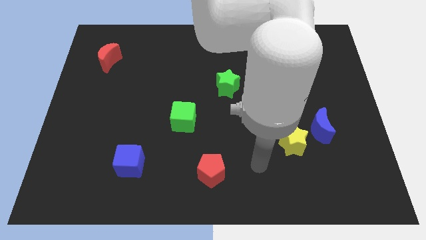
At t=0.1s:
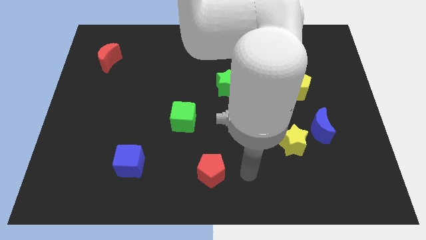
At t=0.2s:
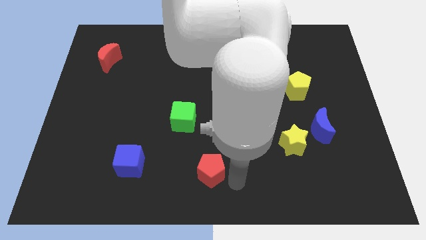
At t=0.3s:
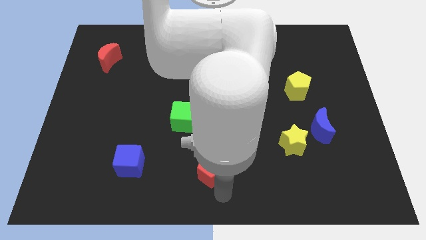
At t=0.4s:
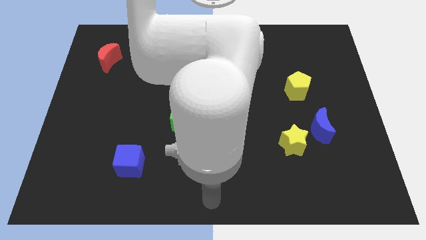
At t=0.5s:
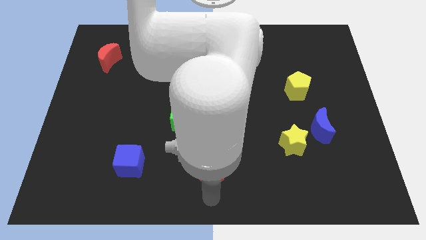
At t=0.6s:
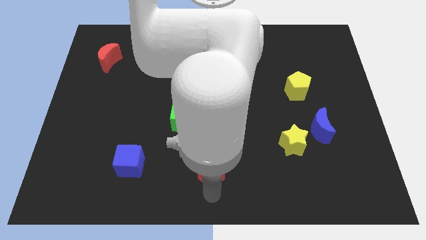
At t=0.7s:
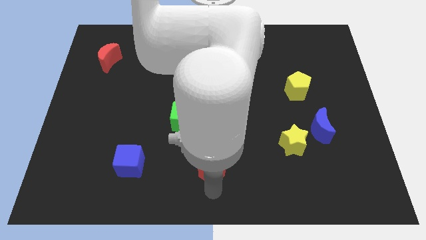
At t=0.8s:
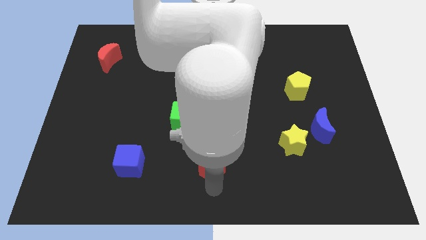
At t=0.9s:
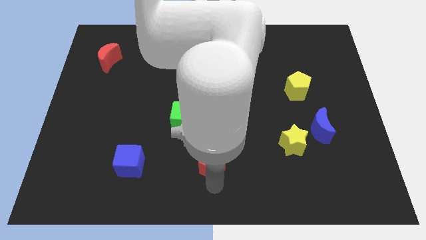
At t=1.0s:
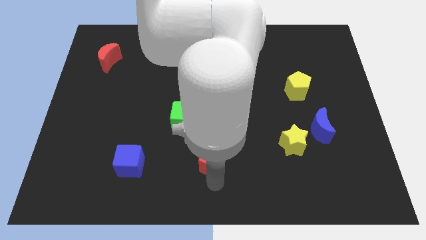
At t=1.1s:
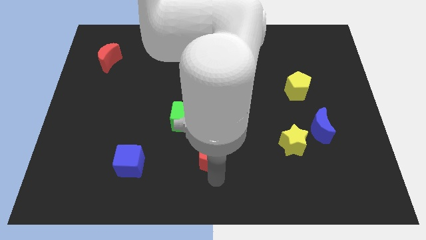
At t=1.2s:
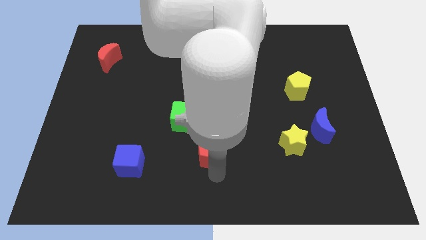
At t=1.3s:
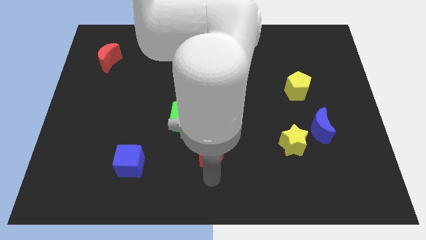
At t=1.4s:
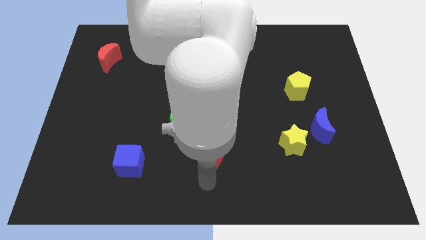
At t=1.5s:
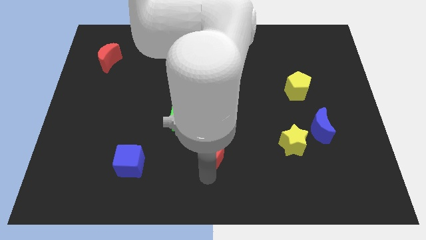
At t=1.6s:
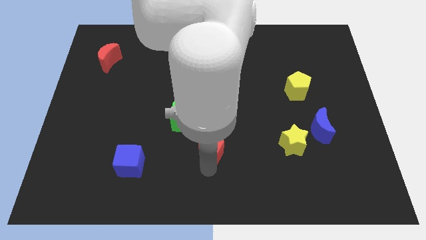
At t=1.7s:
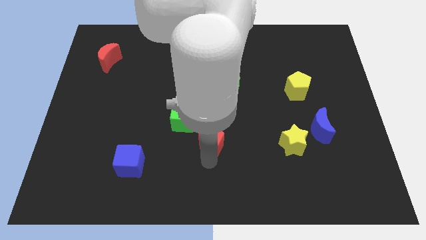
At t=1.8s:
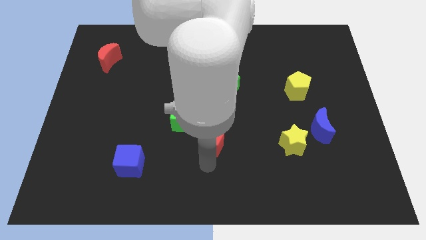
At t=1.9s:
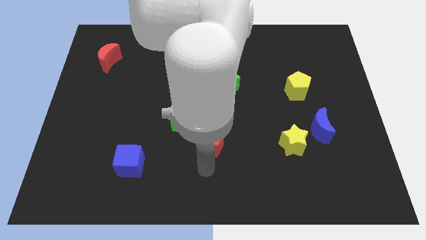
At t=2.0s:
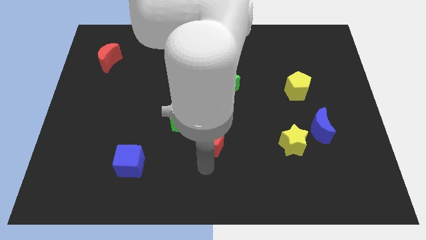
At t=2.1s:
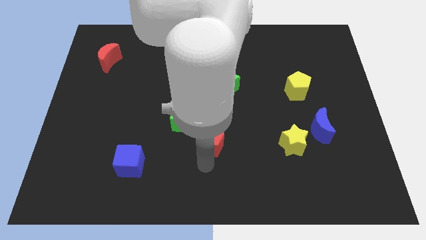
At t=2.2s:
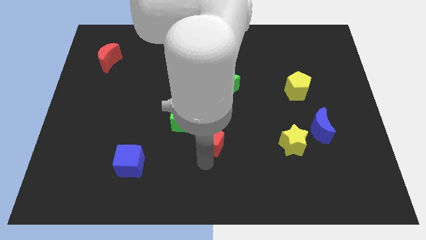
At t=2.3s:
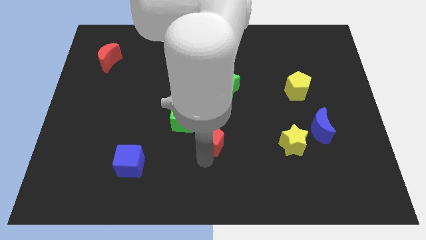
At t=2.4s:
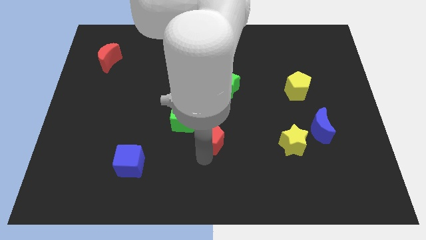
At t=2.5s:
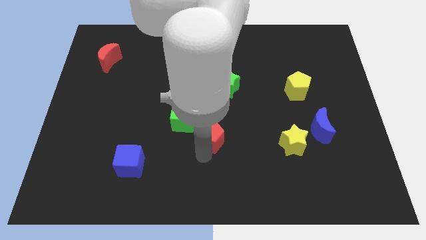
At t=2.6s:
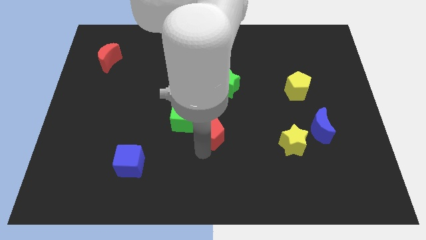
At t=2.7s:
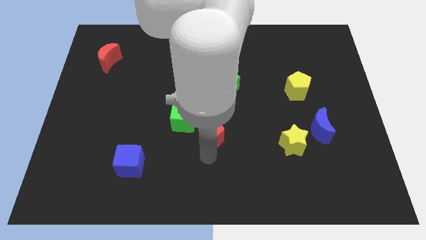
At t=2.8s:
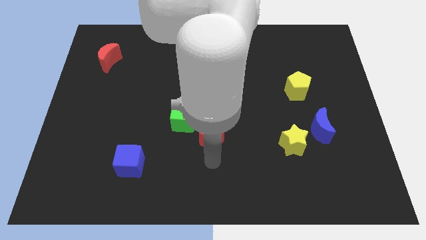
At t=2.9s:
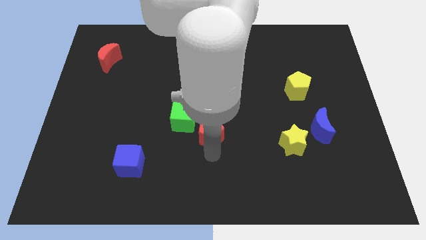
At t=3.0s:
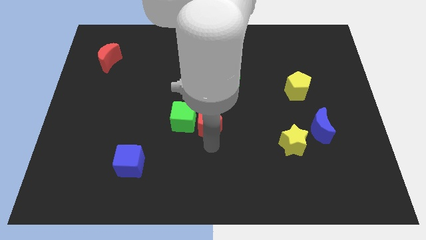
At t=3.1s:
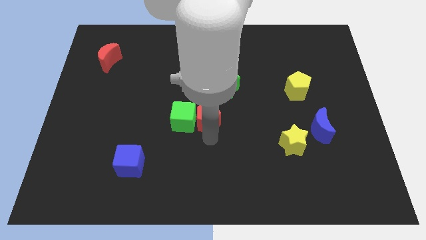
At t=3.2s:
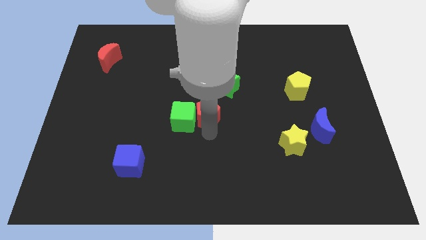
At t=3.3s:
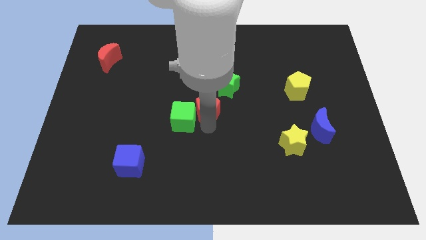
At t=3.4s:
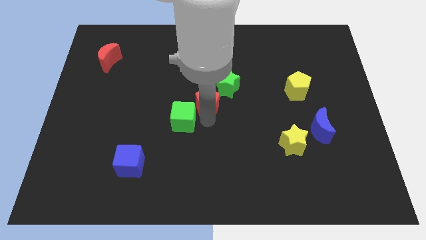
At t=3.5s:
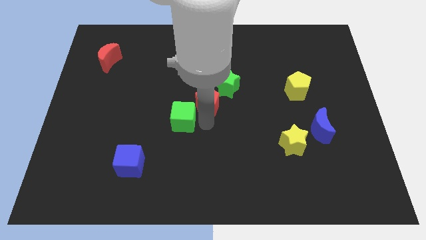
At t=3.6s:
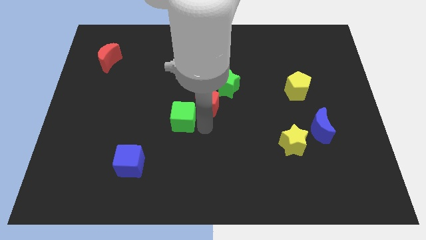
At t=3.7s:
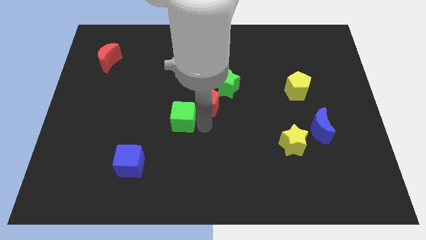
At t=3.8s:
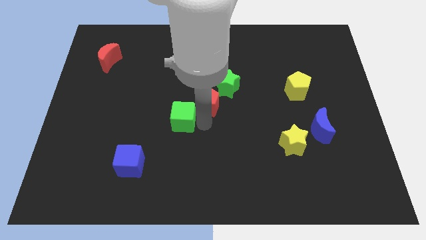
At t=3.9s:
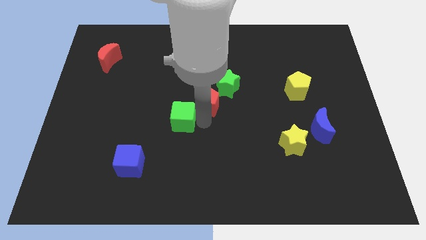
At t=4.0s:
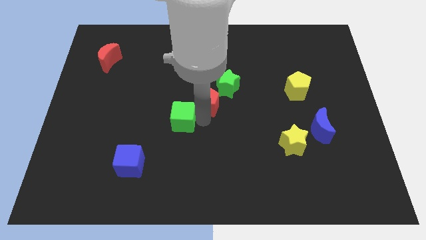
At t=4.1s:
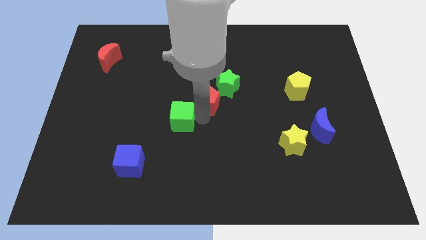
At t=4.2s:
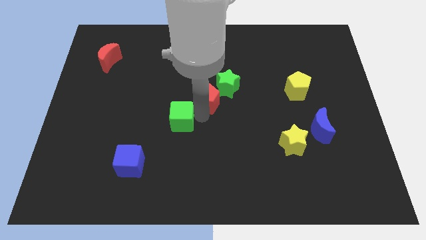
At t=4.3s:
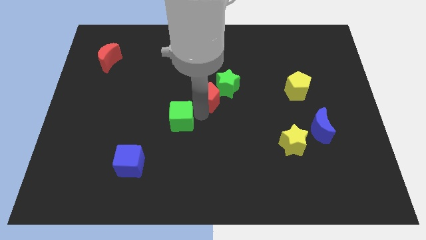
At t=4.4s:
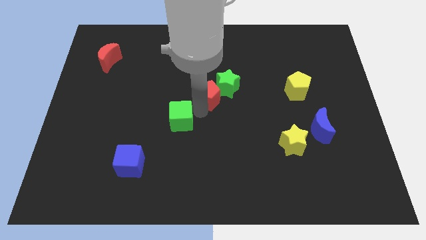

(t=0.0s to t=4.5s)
move the red pentagon upwards

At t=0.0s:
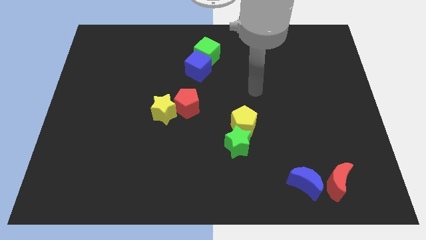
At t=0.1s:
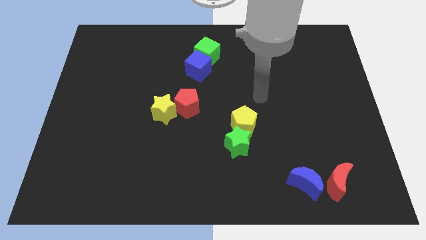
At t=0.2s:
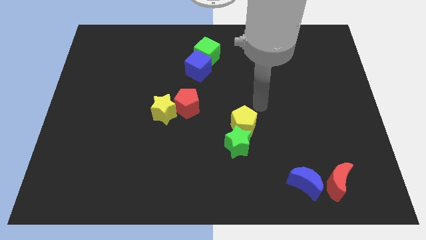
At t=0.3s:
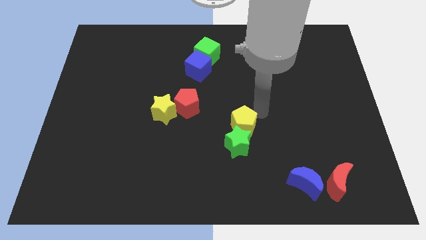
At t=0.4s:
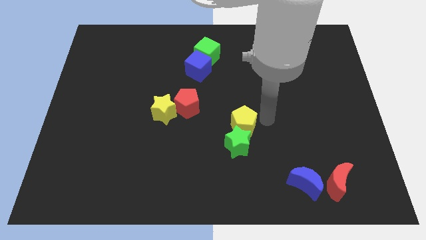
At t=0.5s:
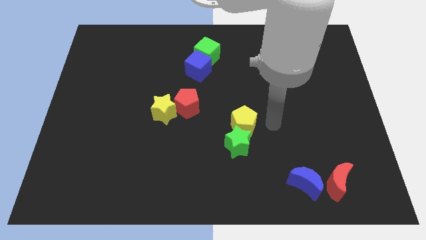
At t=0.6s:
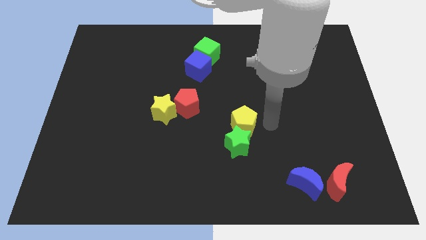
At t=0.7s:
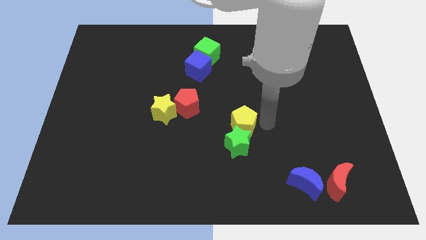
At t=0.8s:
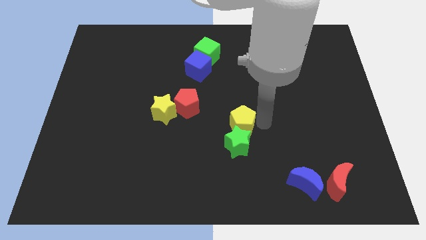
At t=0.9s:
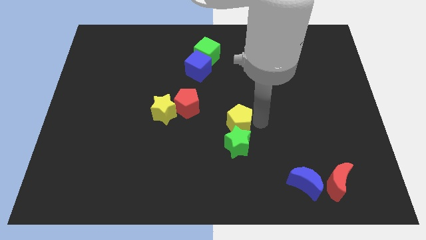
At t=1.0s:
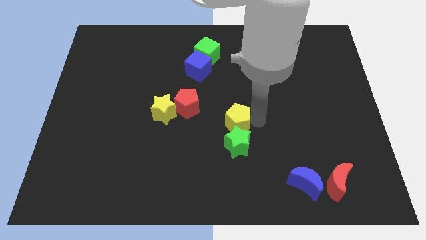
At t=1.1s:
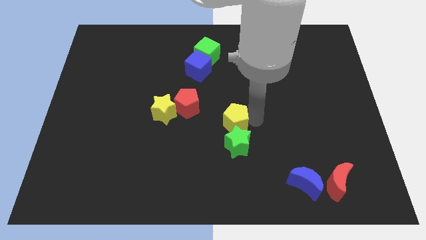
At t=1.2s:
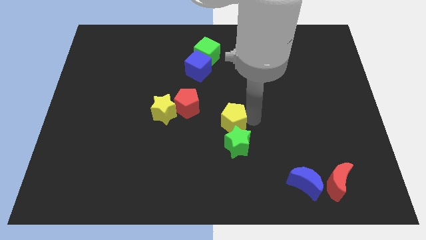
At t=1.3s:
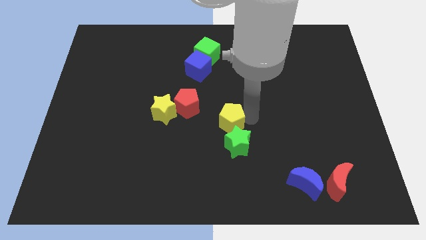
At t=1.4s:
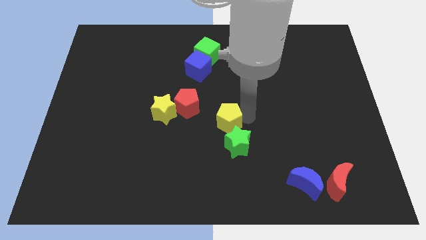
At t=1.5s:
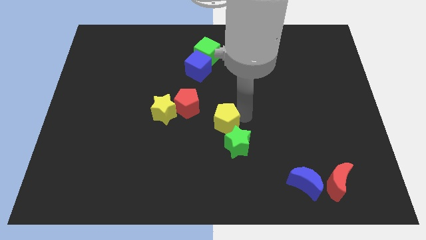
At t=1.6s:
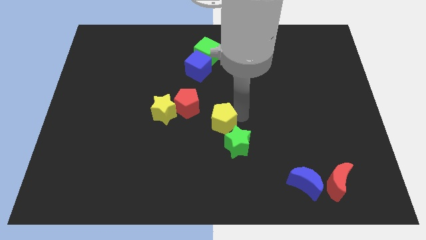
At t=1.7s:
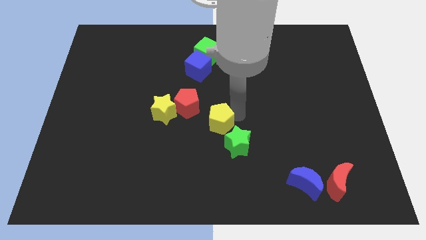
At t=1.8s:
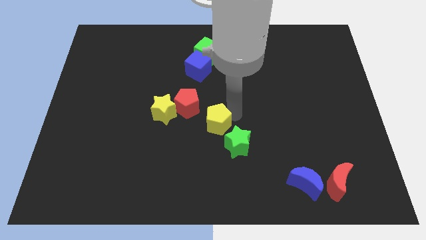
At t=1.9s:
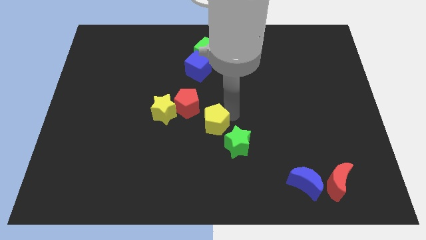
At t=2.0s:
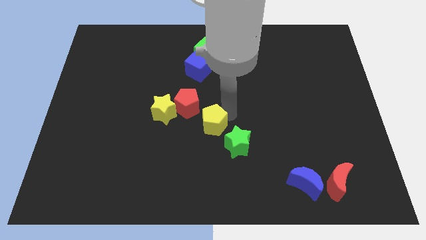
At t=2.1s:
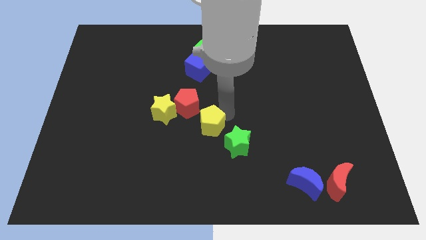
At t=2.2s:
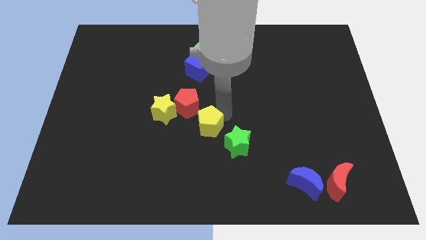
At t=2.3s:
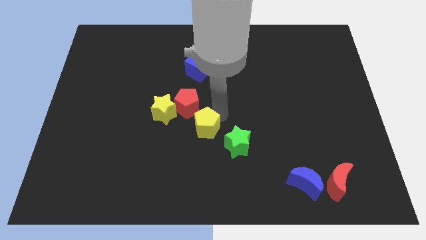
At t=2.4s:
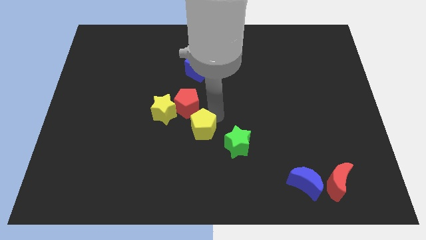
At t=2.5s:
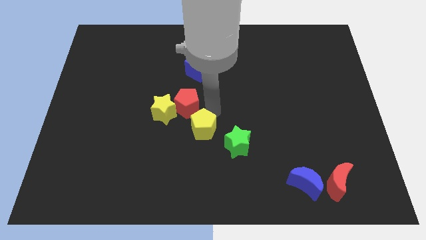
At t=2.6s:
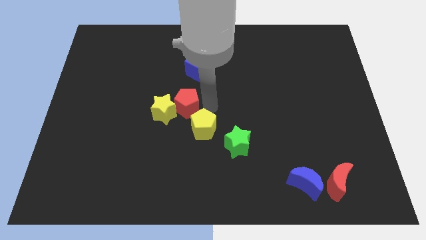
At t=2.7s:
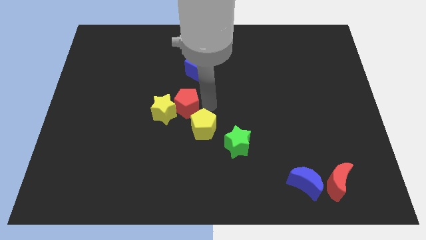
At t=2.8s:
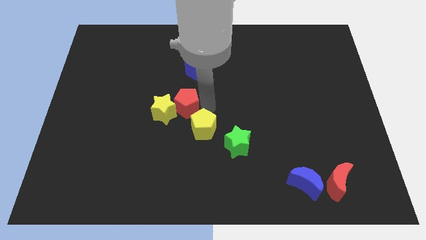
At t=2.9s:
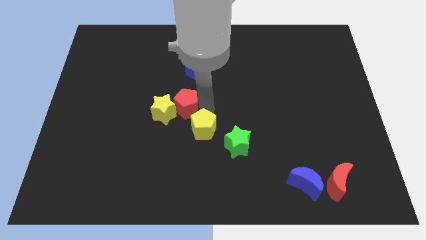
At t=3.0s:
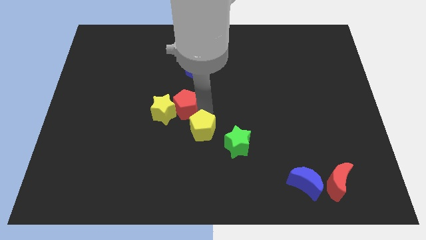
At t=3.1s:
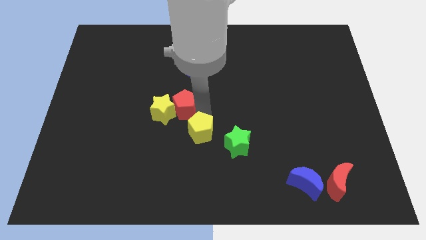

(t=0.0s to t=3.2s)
slightly slide the yellow pentagon down and to the left diagonally

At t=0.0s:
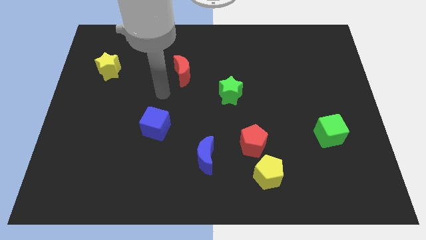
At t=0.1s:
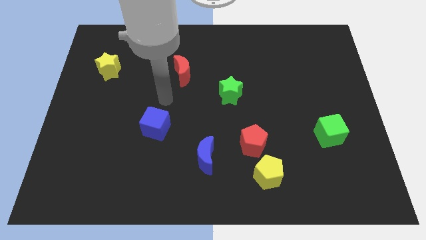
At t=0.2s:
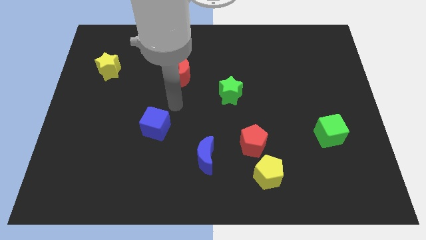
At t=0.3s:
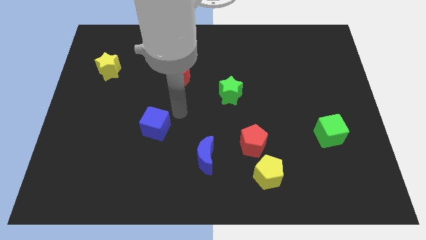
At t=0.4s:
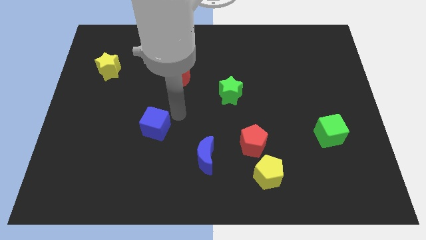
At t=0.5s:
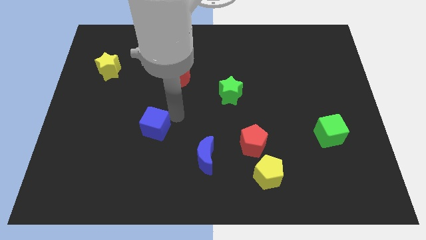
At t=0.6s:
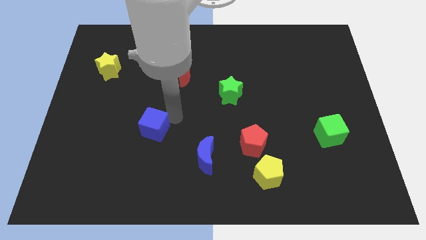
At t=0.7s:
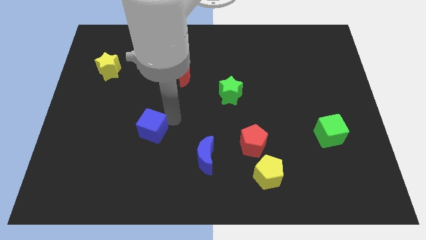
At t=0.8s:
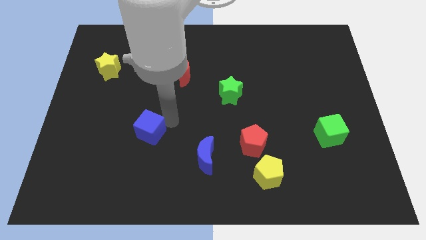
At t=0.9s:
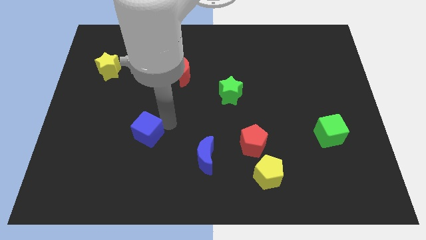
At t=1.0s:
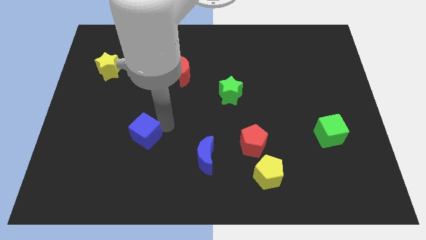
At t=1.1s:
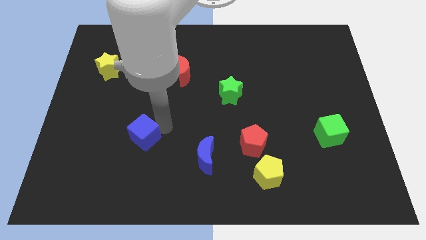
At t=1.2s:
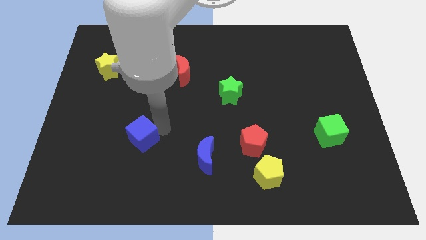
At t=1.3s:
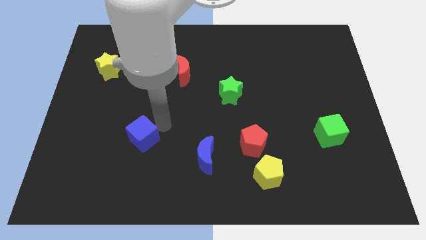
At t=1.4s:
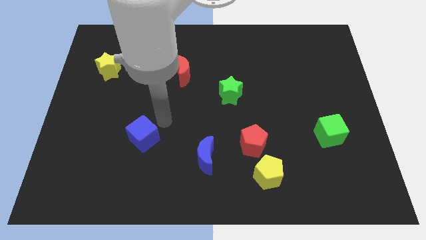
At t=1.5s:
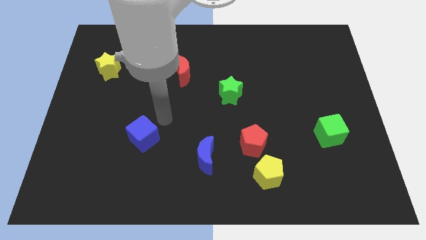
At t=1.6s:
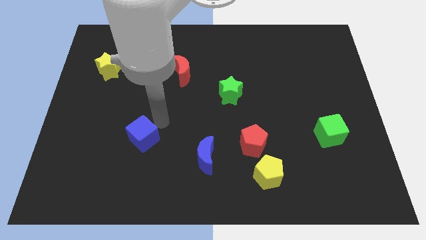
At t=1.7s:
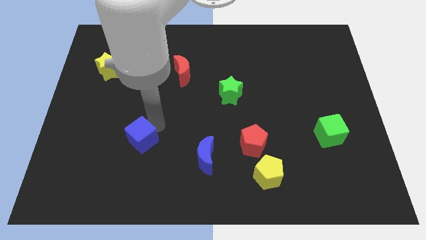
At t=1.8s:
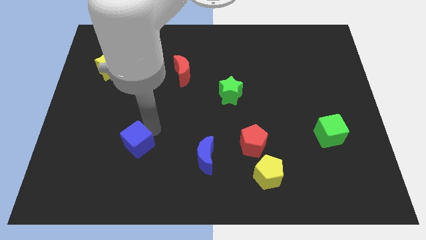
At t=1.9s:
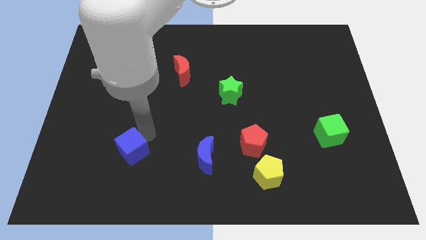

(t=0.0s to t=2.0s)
push the blue cube slightly downwards and then to the left
